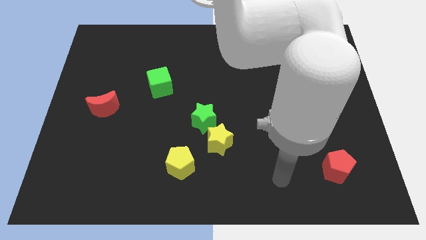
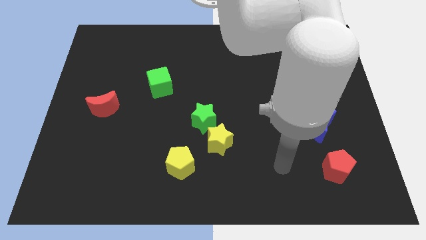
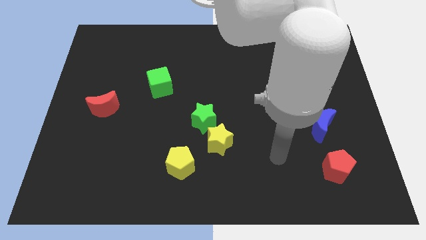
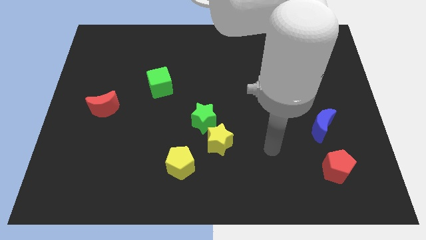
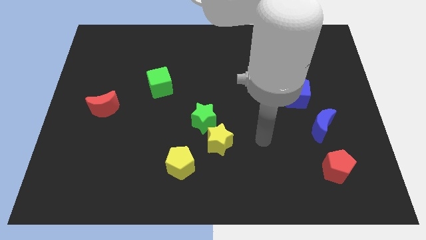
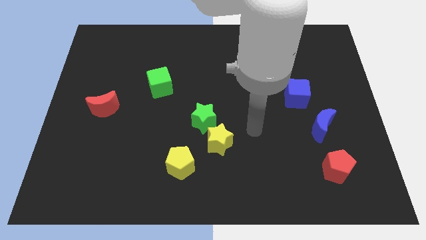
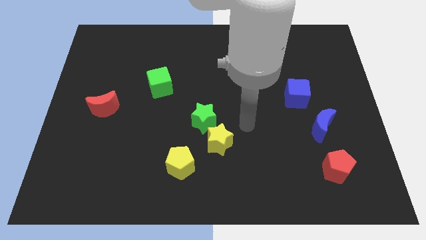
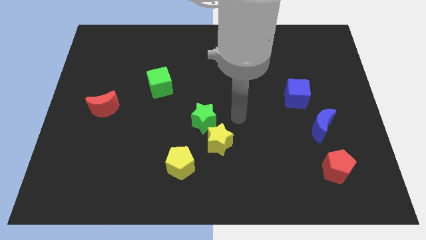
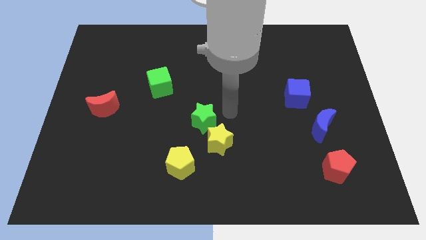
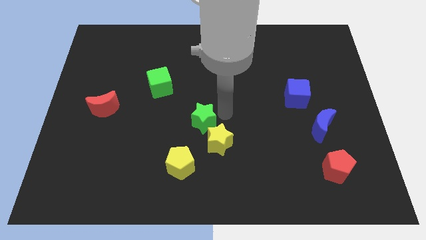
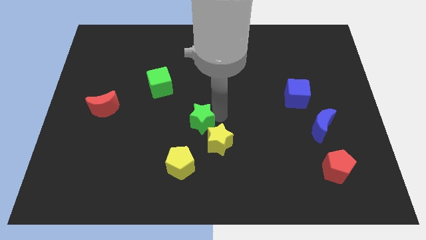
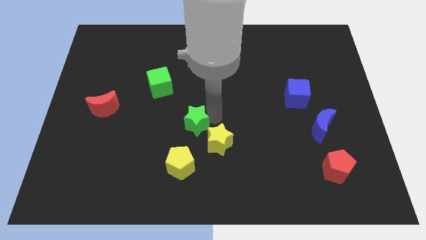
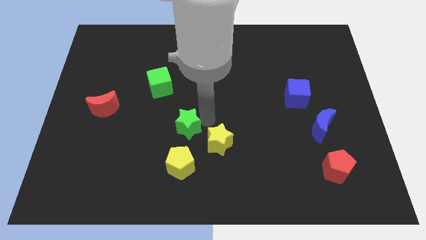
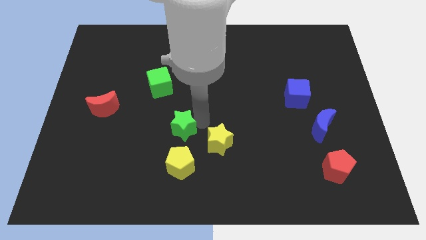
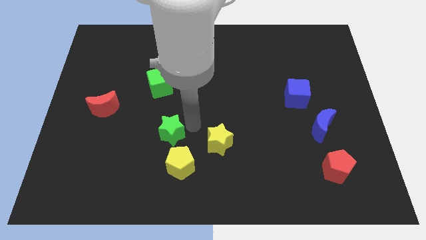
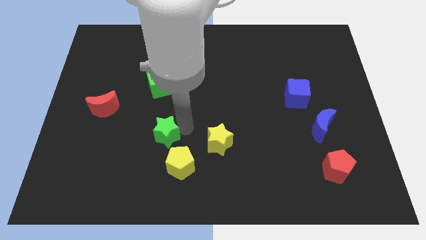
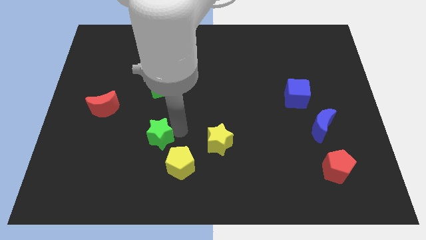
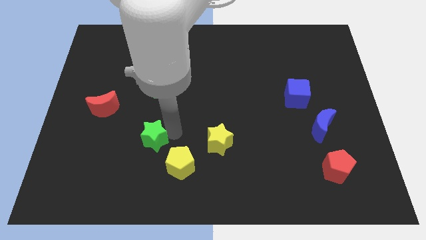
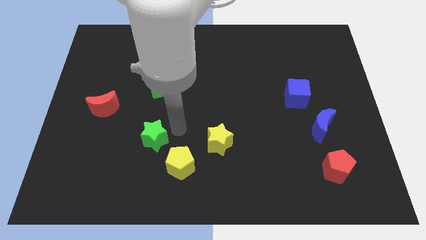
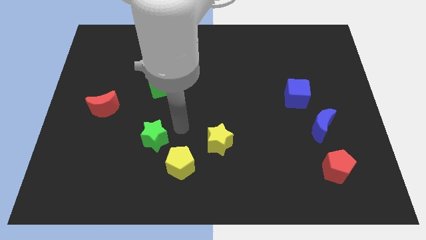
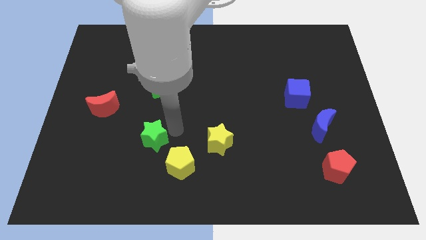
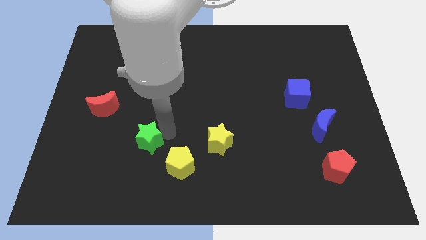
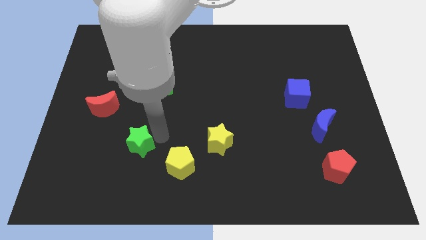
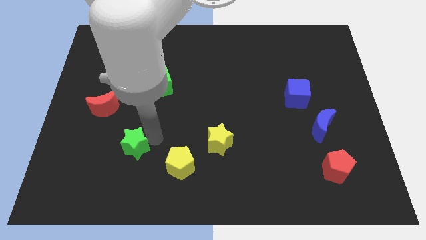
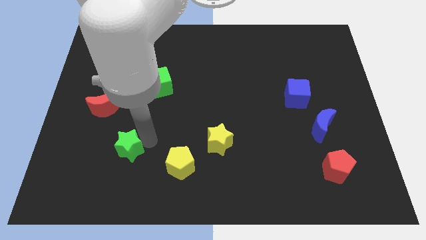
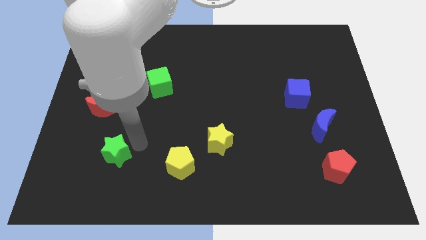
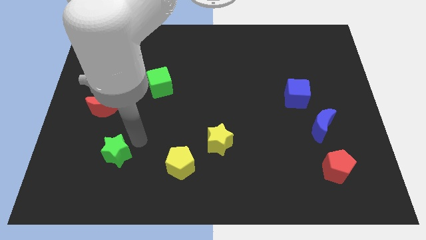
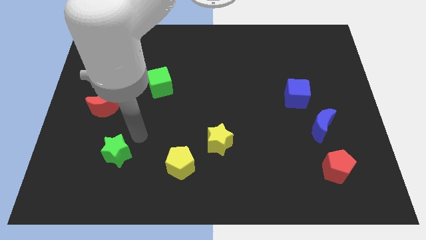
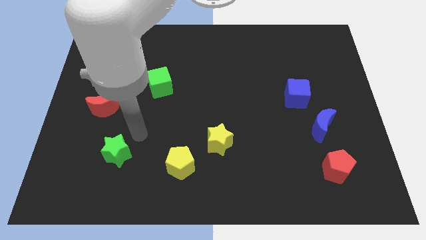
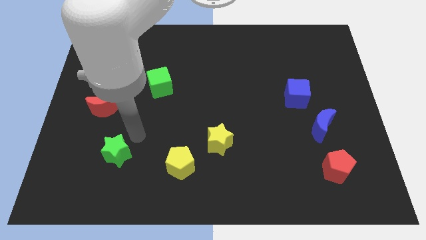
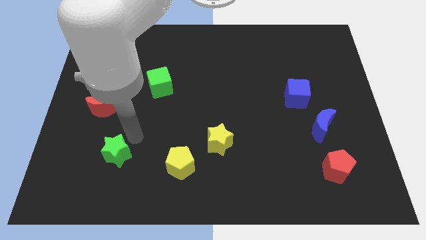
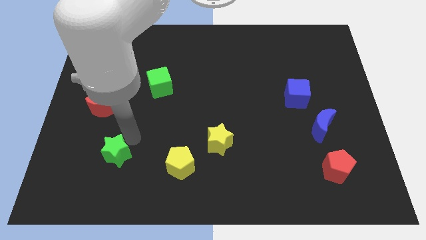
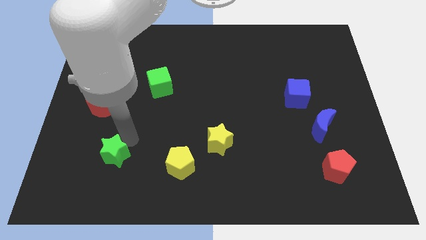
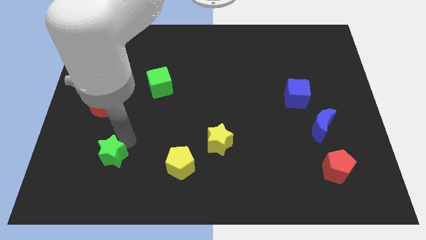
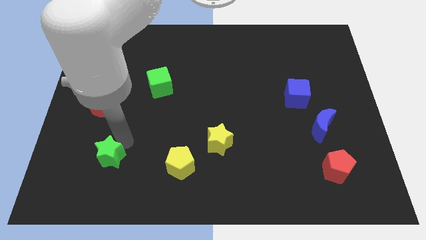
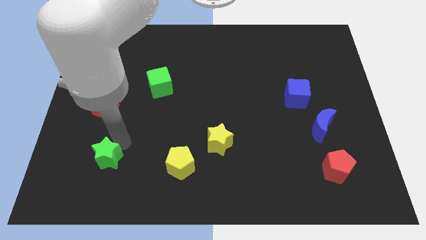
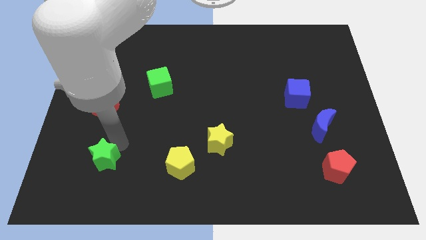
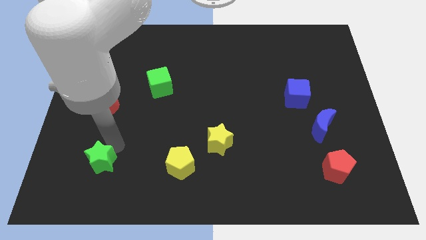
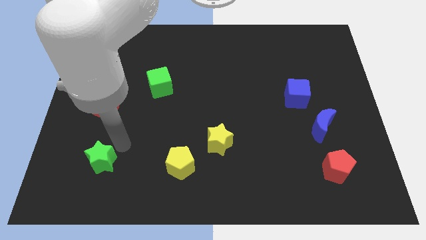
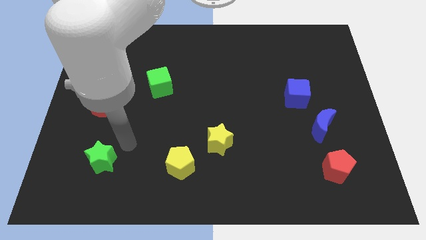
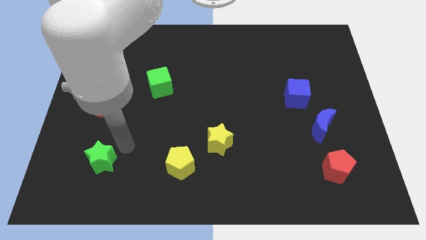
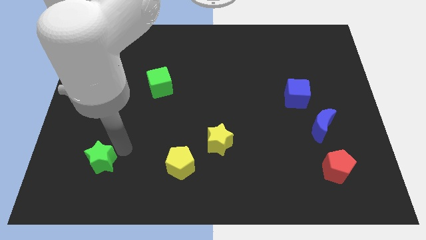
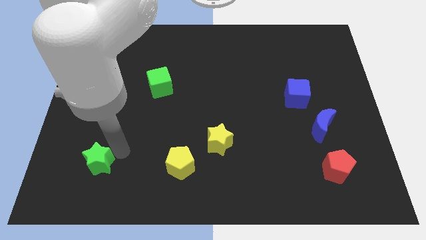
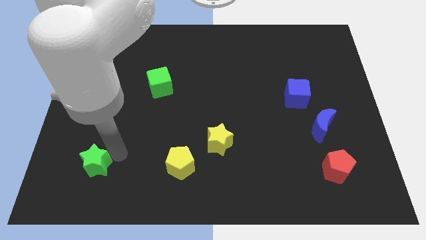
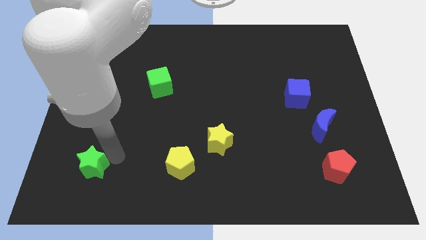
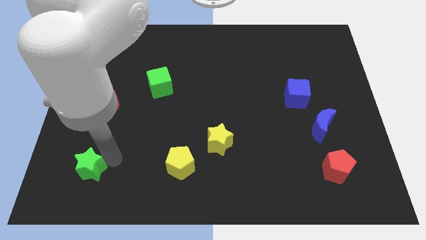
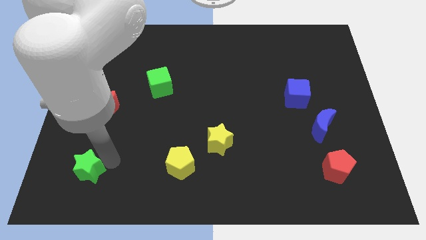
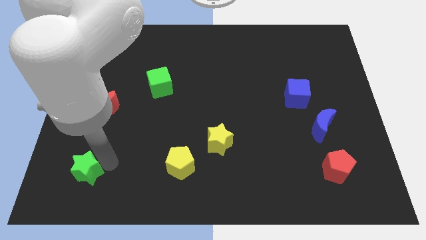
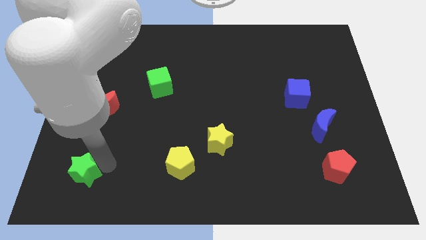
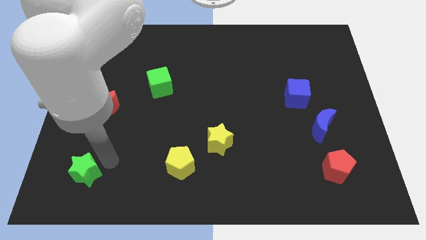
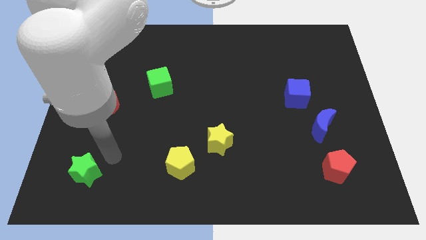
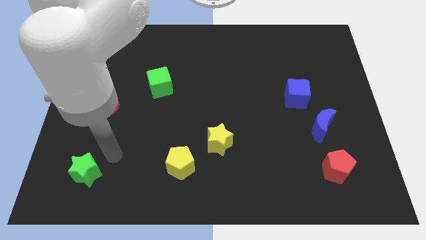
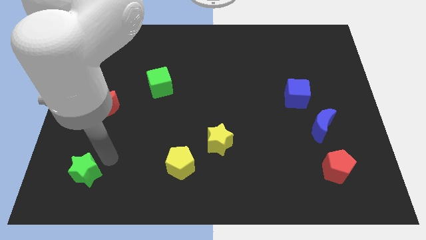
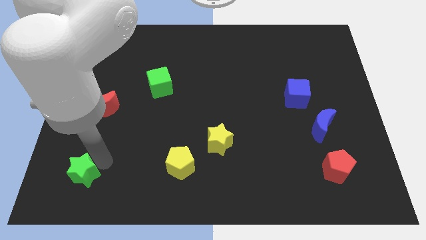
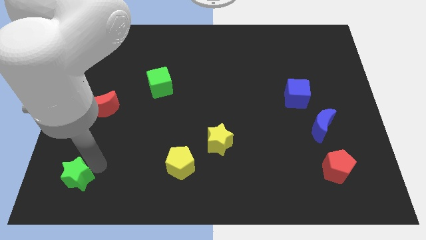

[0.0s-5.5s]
move the green star to the bottom left of the board

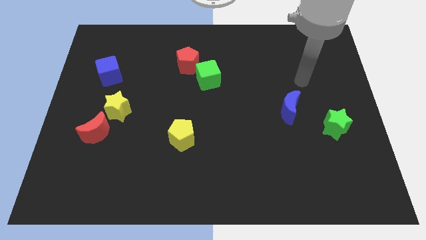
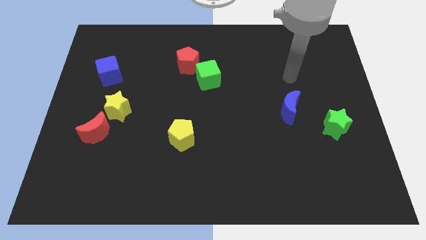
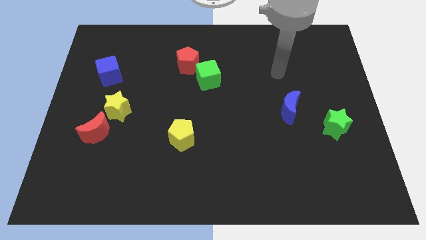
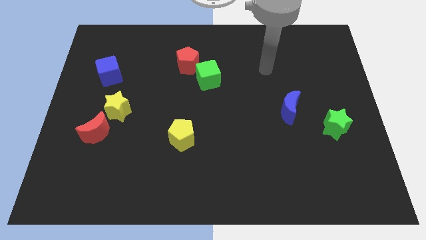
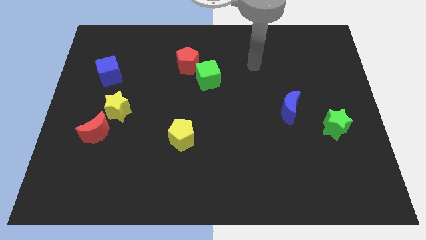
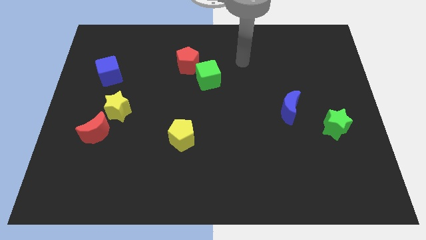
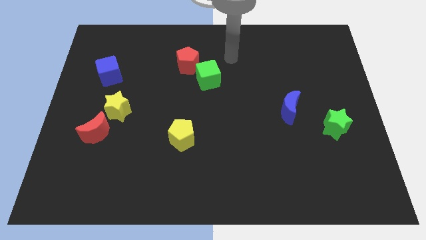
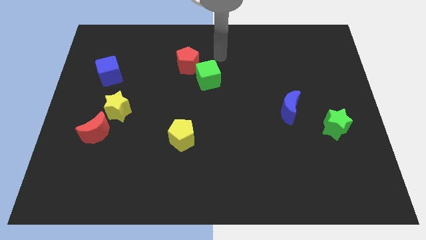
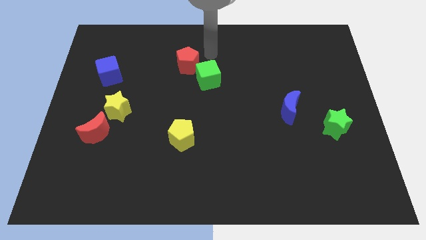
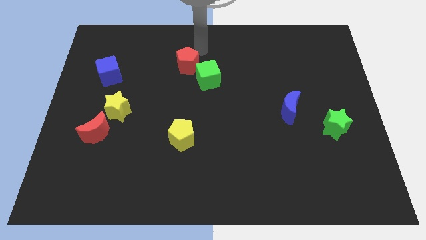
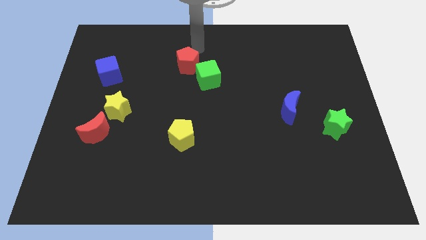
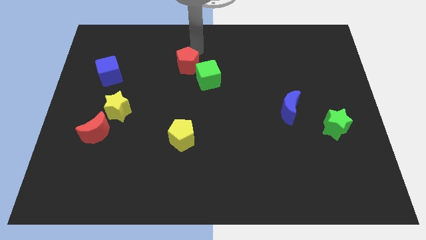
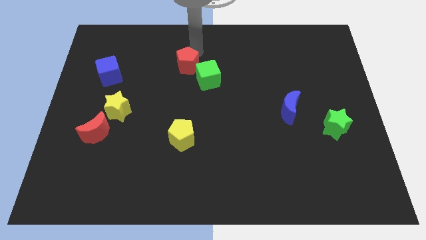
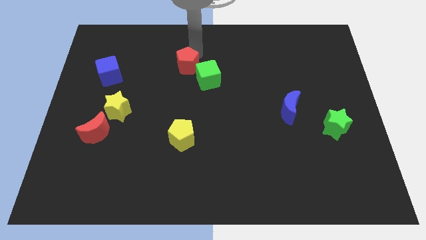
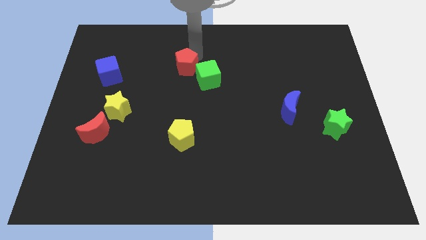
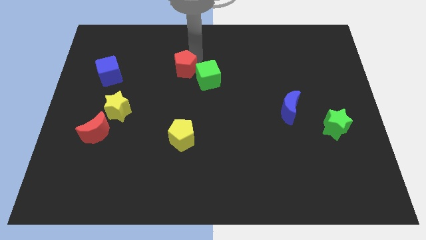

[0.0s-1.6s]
push the red pentagon to the middle

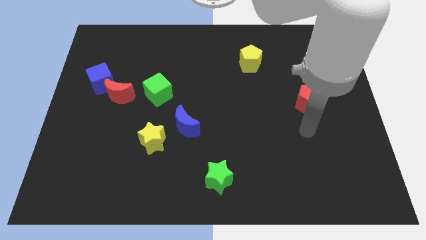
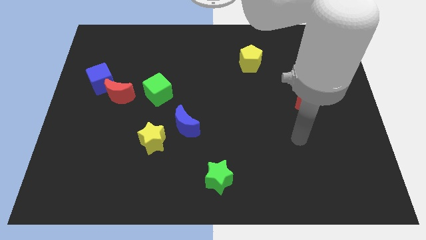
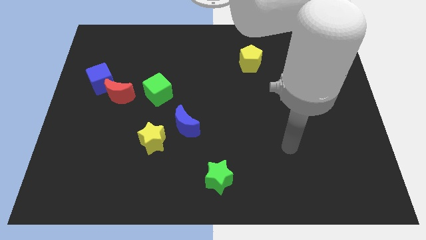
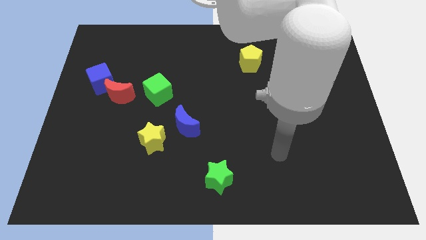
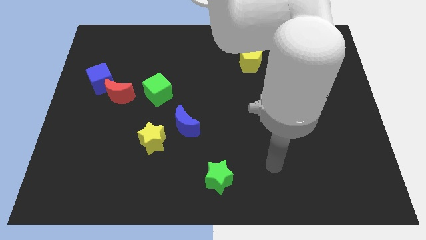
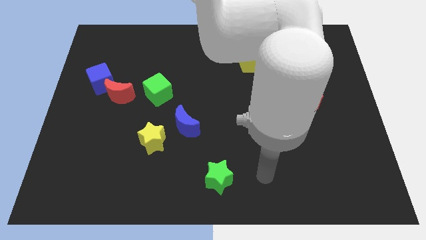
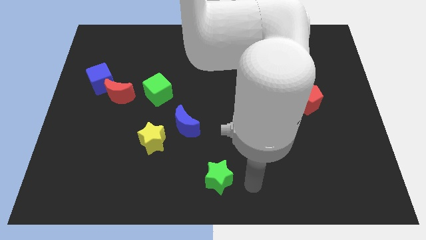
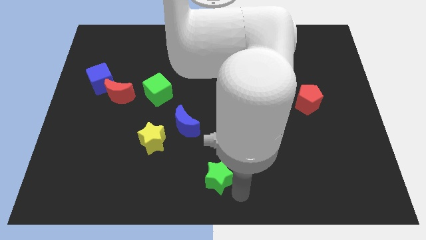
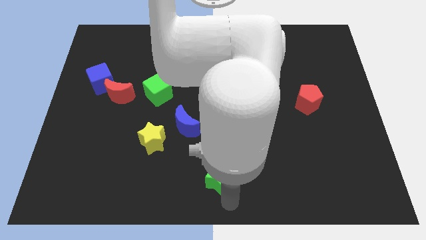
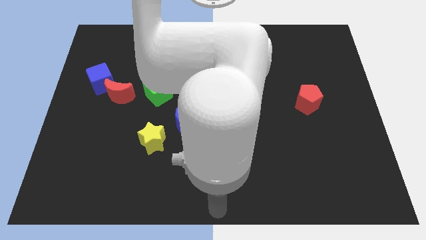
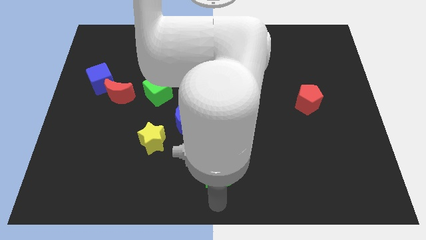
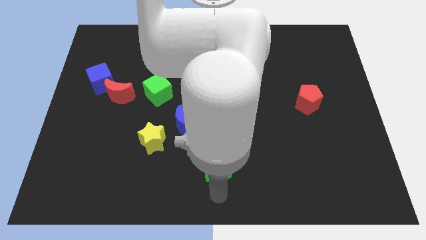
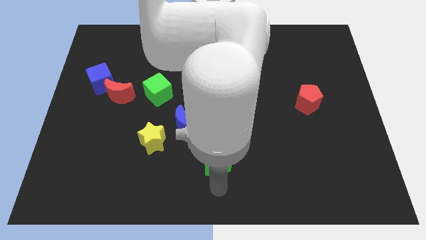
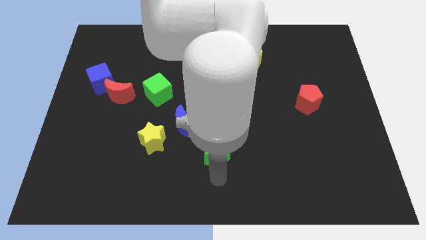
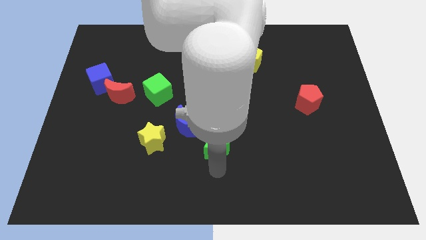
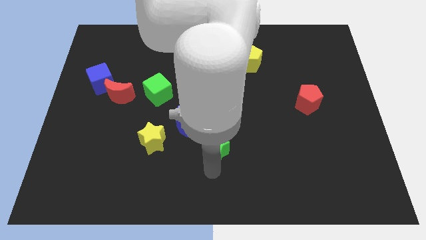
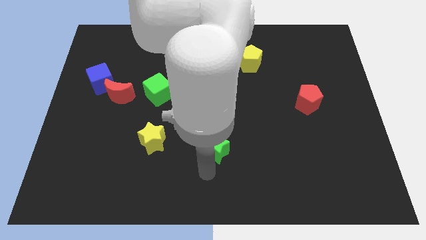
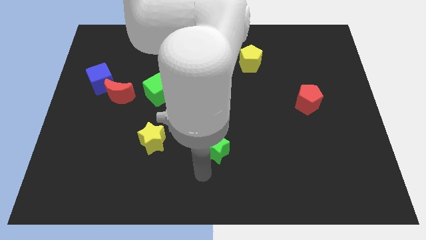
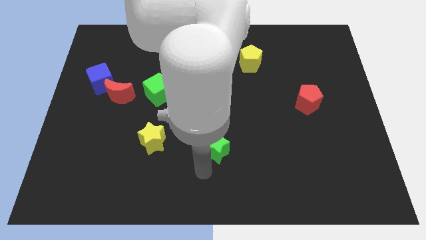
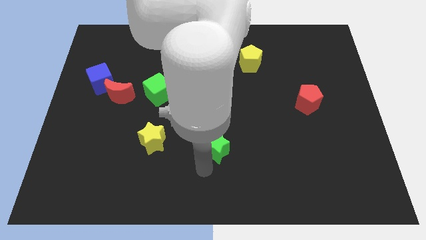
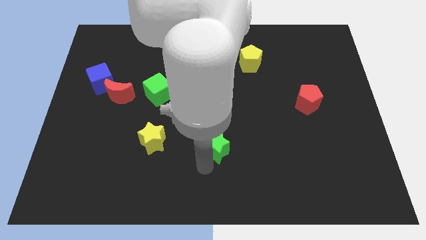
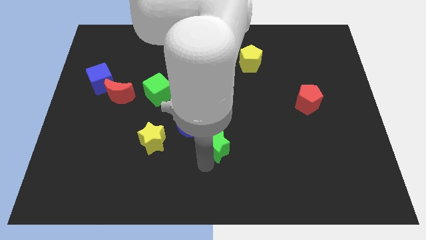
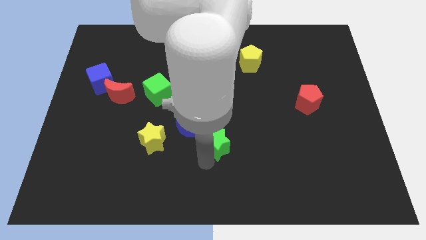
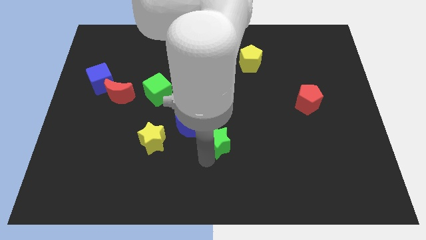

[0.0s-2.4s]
move the green star to the center of the board
